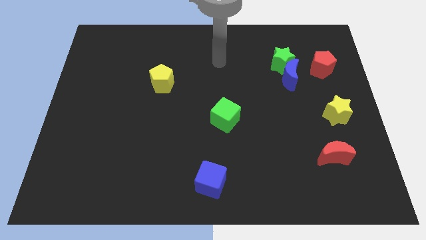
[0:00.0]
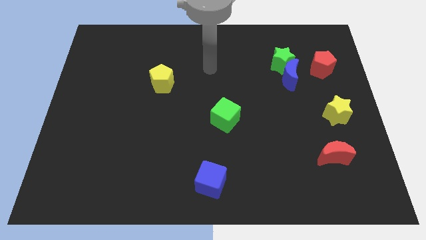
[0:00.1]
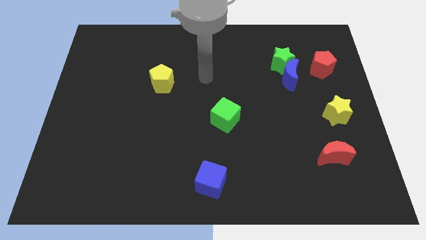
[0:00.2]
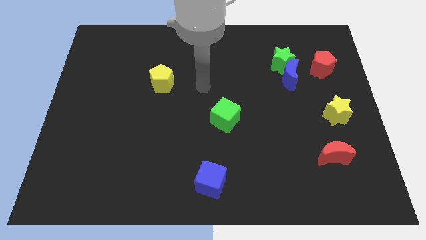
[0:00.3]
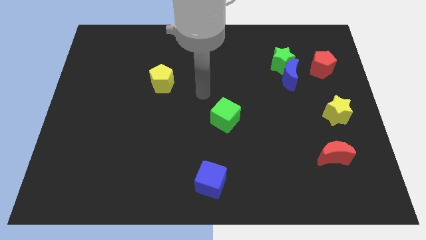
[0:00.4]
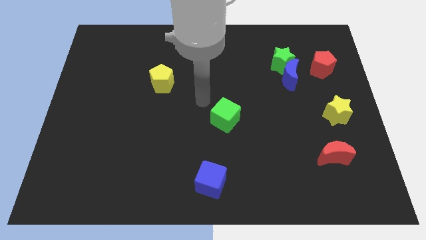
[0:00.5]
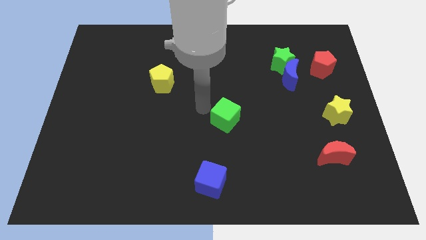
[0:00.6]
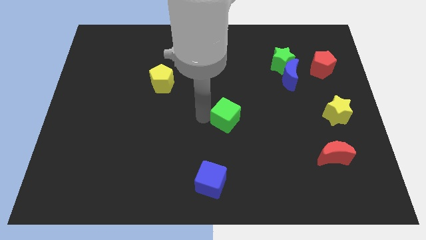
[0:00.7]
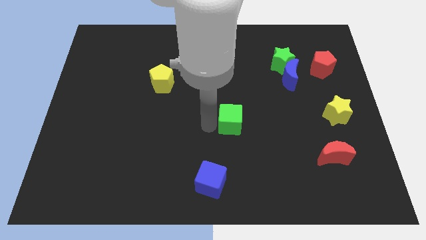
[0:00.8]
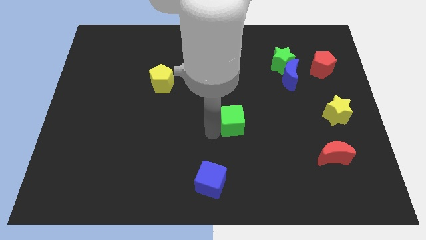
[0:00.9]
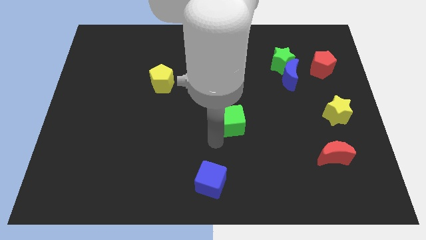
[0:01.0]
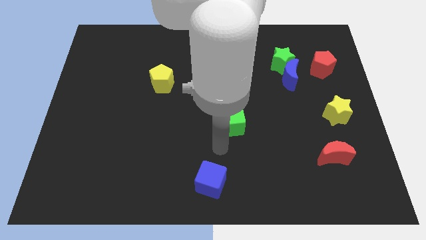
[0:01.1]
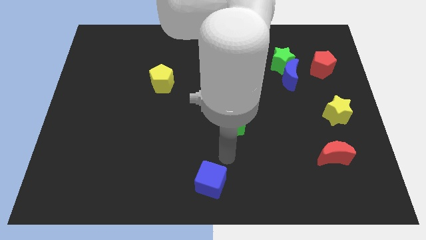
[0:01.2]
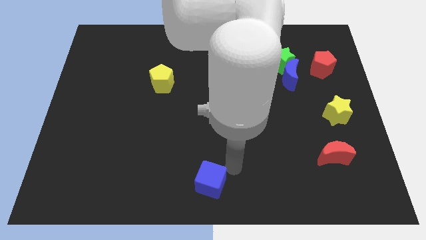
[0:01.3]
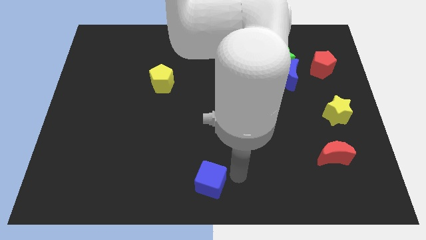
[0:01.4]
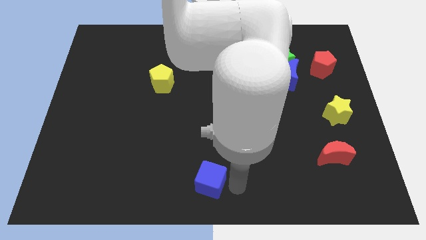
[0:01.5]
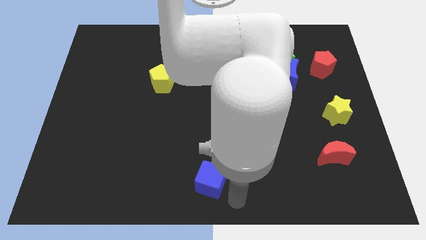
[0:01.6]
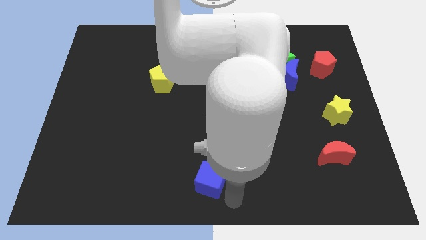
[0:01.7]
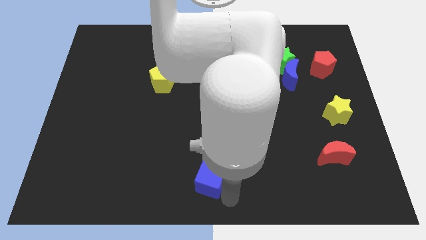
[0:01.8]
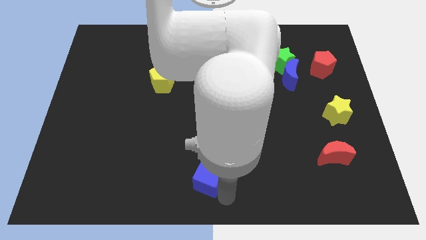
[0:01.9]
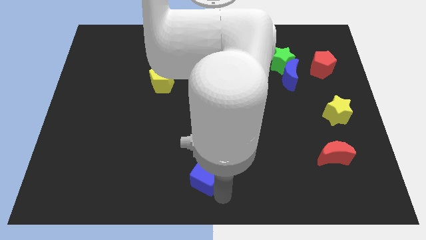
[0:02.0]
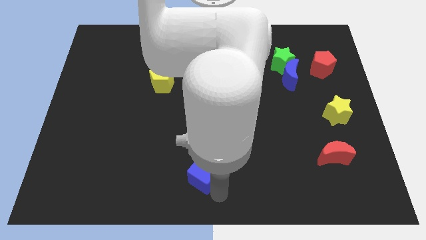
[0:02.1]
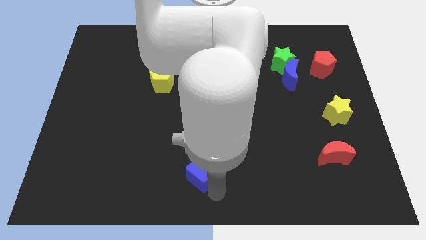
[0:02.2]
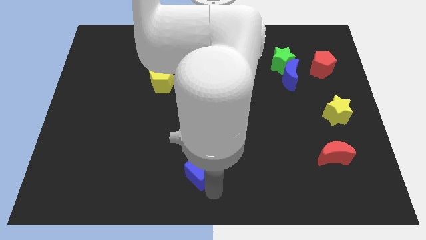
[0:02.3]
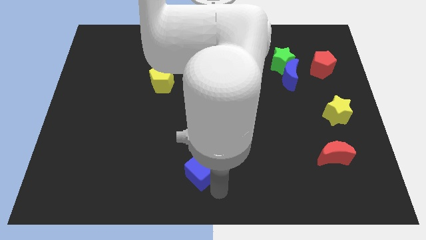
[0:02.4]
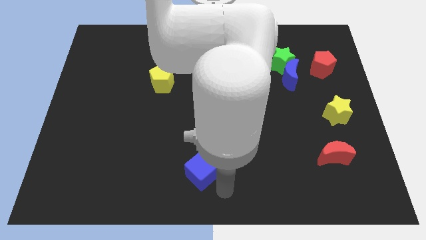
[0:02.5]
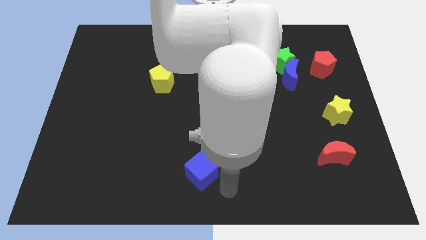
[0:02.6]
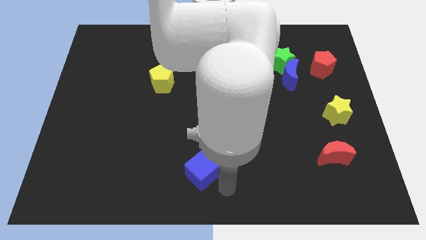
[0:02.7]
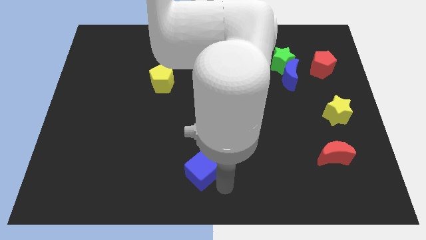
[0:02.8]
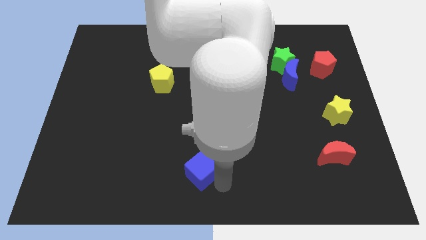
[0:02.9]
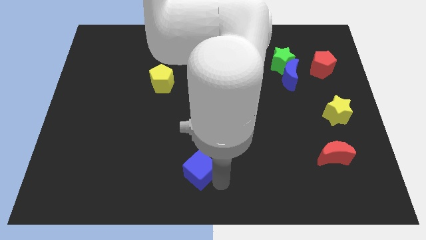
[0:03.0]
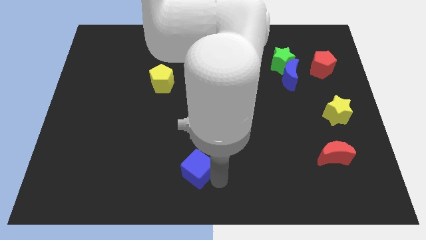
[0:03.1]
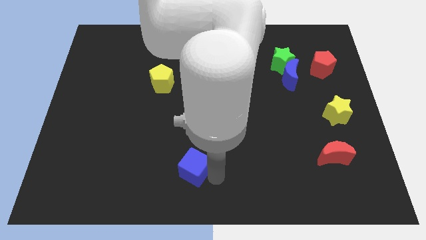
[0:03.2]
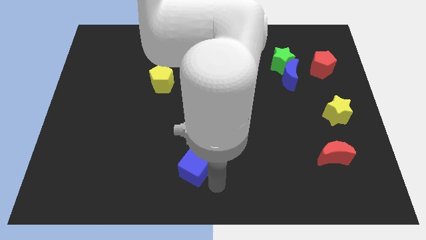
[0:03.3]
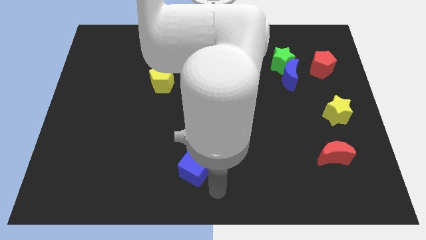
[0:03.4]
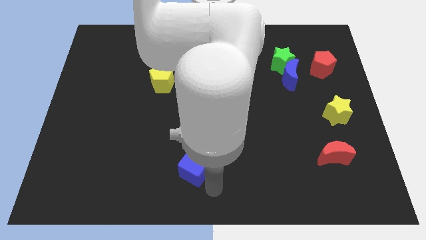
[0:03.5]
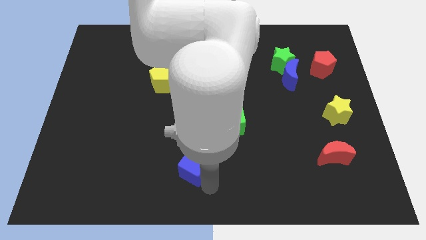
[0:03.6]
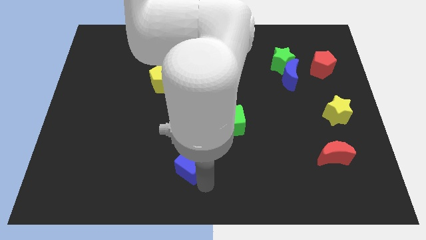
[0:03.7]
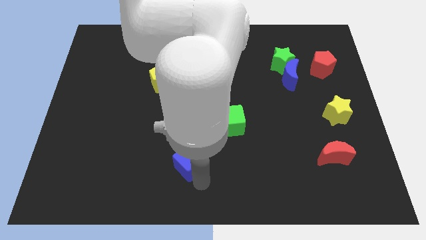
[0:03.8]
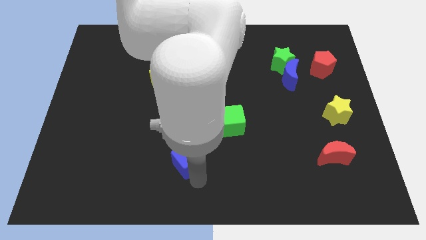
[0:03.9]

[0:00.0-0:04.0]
slightly move the blue cube diagonally up and left

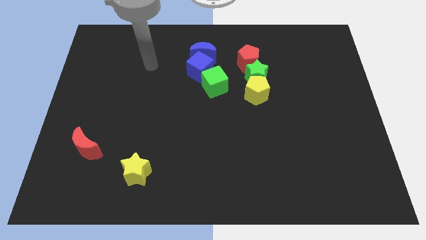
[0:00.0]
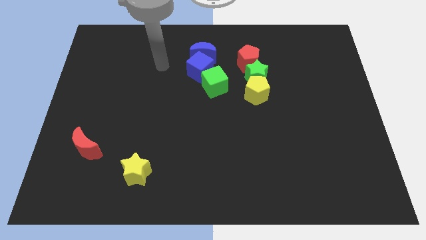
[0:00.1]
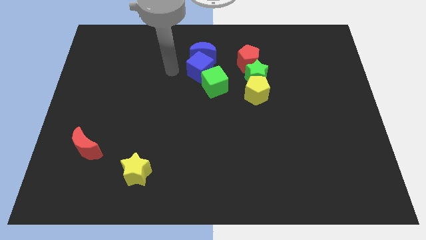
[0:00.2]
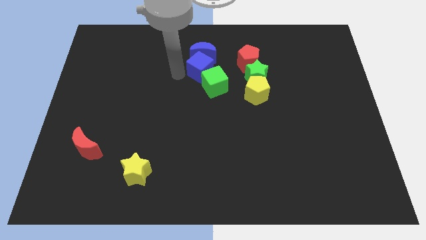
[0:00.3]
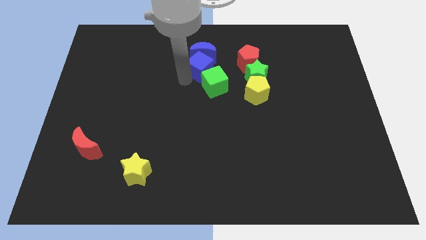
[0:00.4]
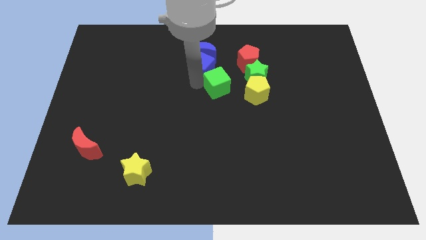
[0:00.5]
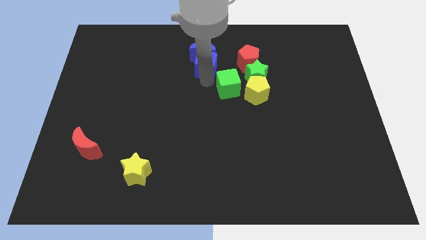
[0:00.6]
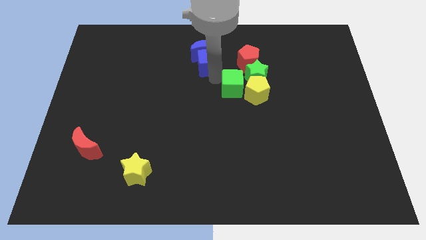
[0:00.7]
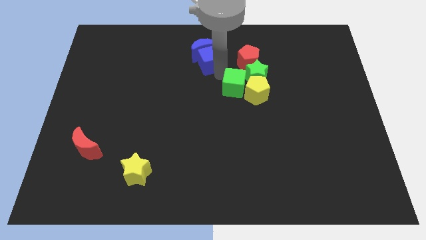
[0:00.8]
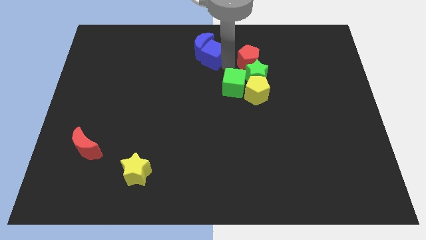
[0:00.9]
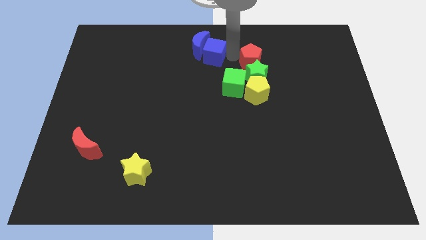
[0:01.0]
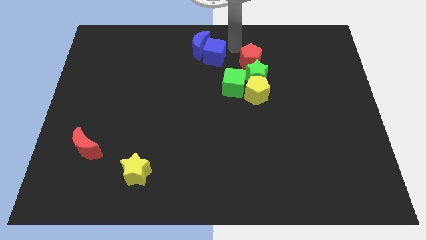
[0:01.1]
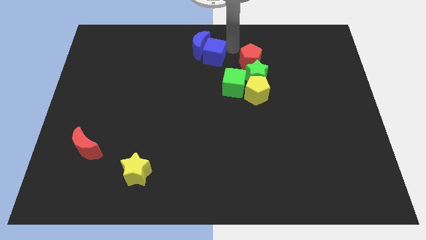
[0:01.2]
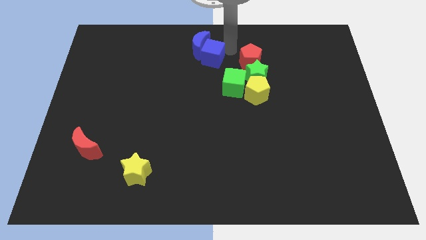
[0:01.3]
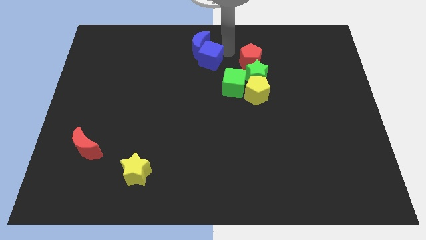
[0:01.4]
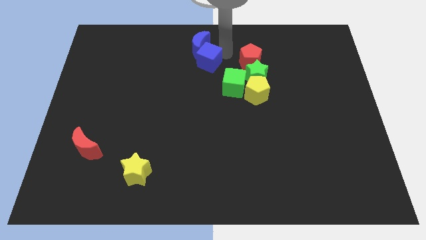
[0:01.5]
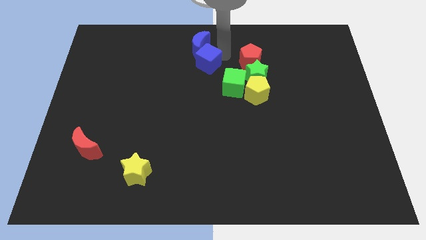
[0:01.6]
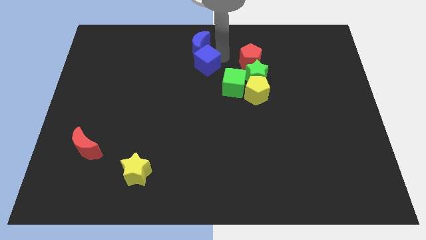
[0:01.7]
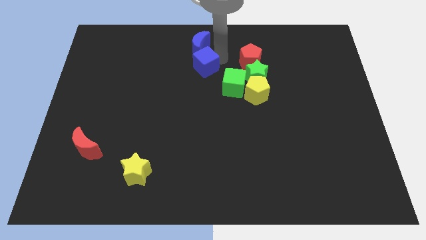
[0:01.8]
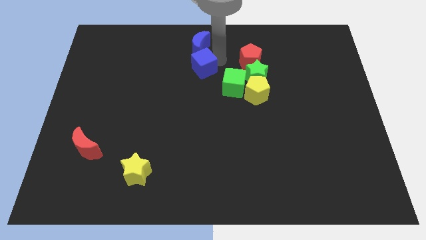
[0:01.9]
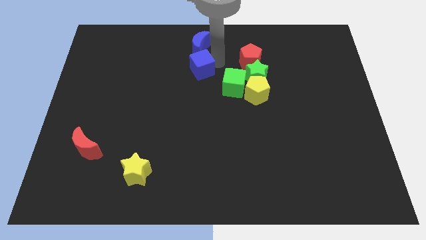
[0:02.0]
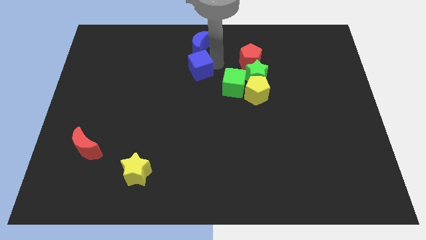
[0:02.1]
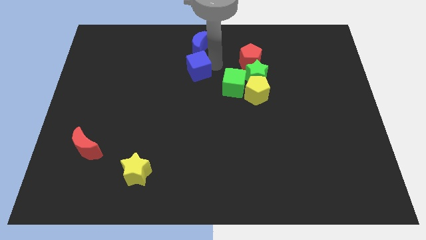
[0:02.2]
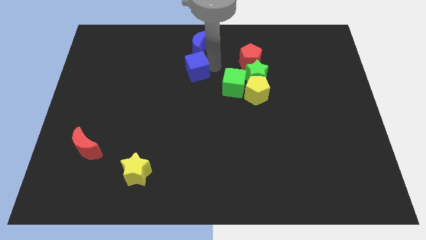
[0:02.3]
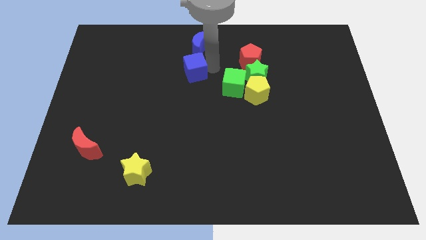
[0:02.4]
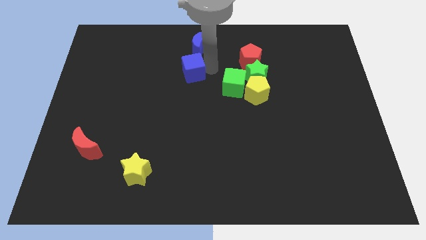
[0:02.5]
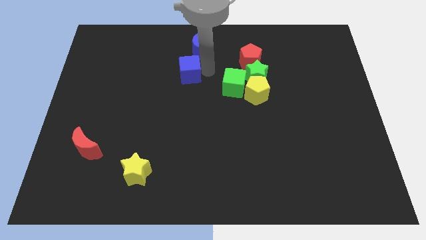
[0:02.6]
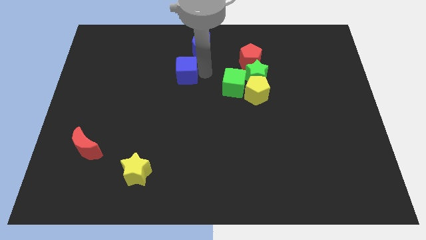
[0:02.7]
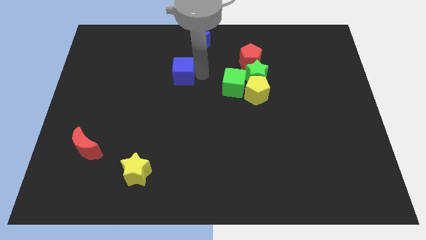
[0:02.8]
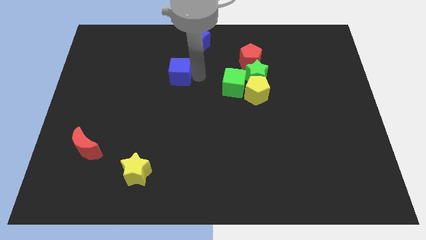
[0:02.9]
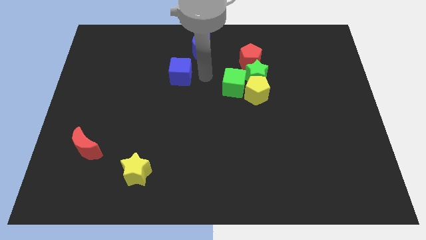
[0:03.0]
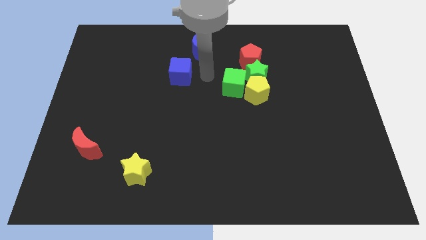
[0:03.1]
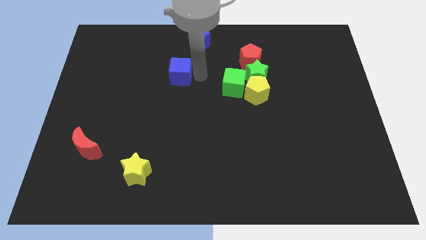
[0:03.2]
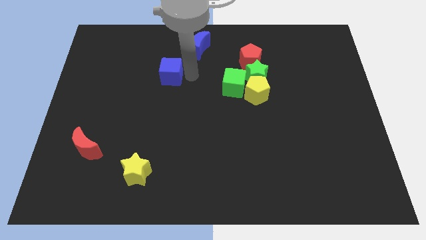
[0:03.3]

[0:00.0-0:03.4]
push the blue cube left a little bit

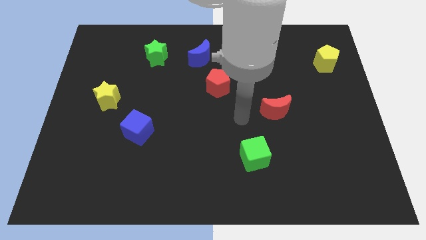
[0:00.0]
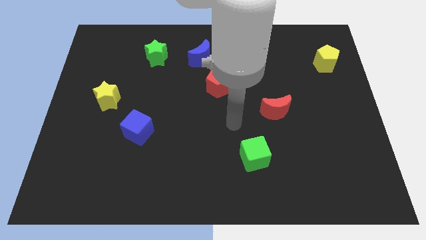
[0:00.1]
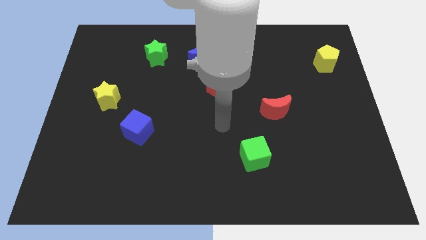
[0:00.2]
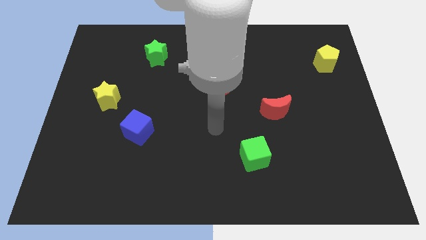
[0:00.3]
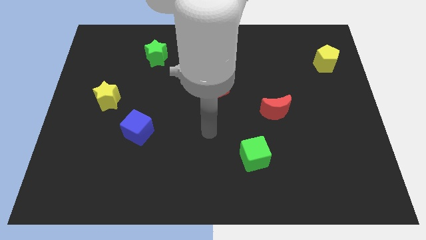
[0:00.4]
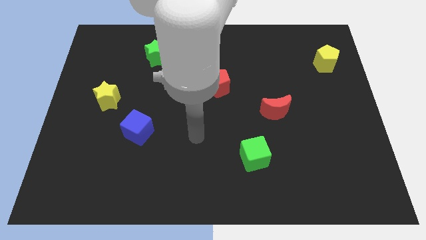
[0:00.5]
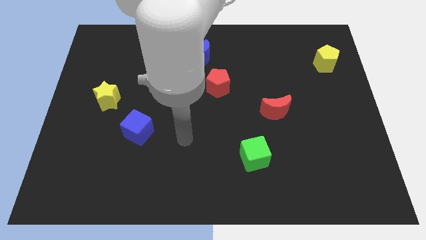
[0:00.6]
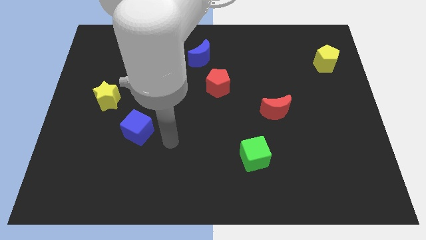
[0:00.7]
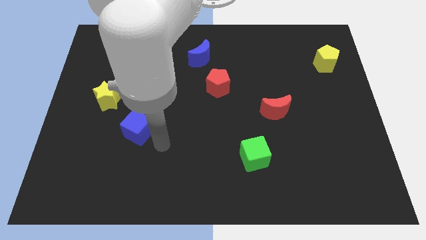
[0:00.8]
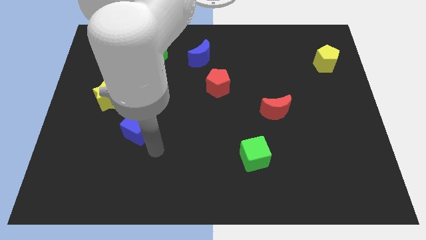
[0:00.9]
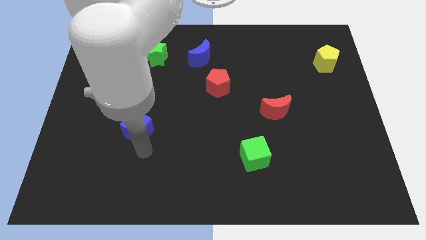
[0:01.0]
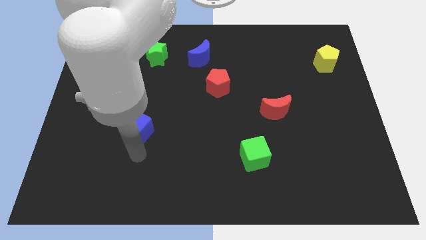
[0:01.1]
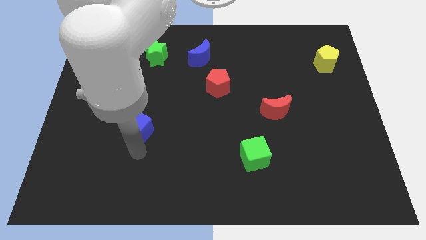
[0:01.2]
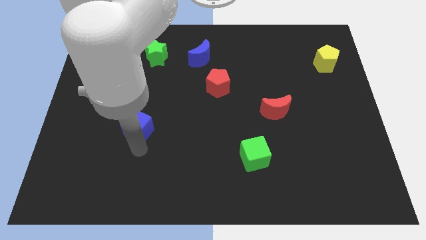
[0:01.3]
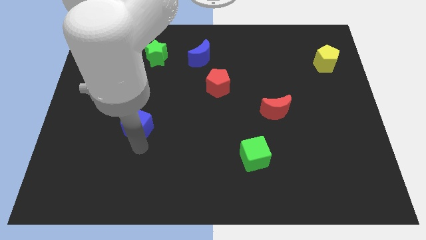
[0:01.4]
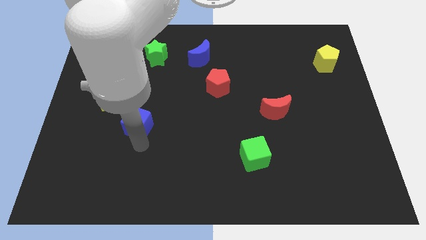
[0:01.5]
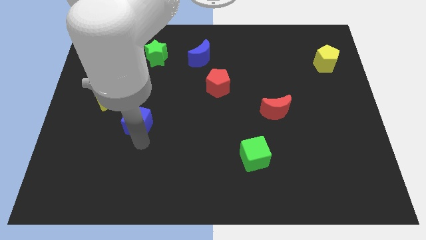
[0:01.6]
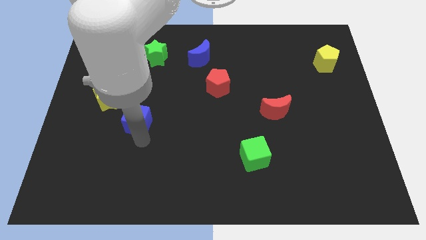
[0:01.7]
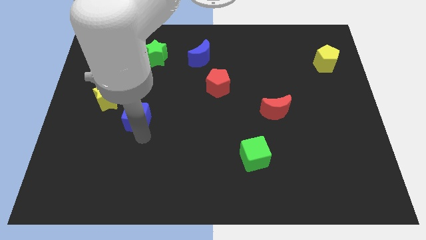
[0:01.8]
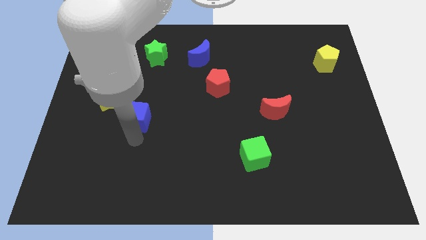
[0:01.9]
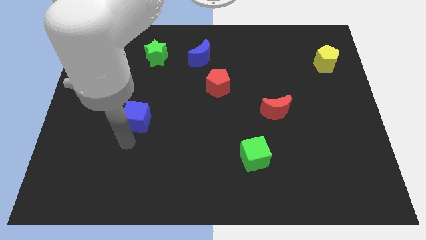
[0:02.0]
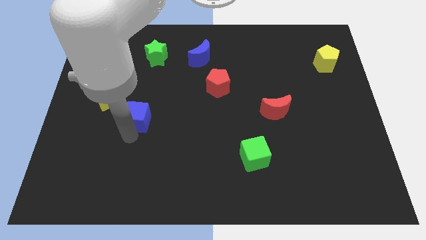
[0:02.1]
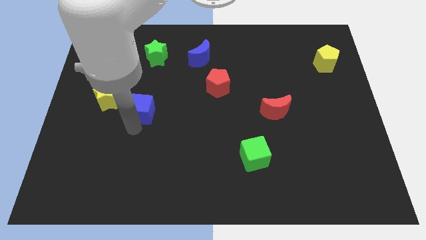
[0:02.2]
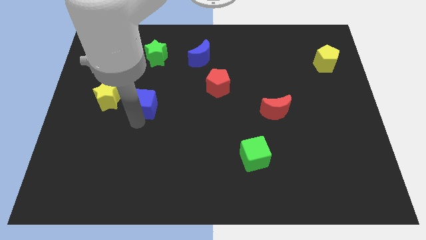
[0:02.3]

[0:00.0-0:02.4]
push the blue cube up a little
